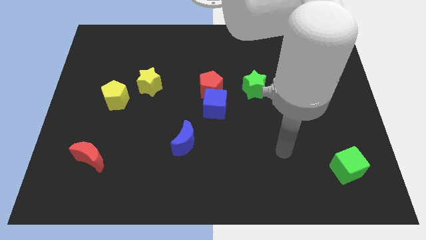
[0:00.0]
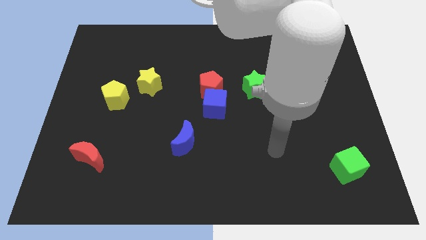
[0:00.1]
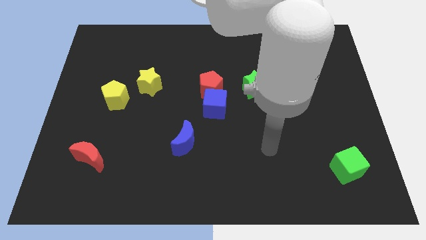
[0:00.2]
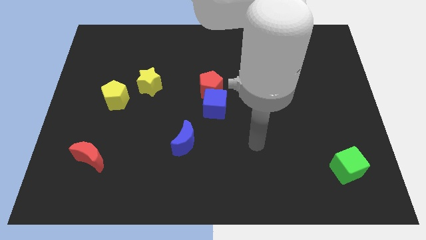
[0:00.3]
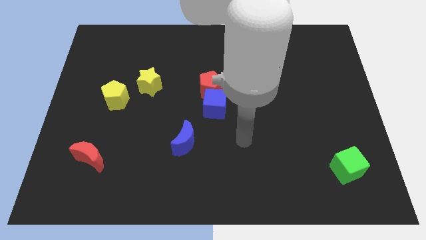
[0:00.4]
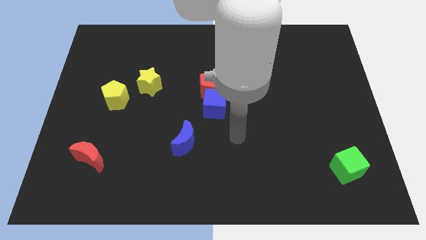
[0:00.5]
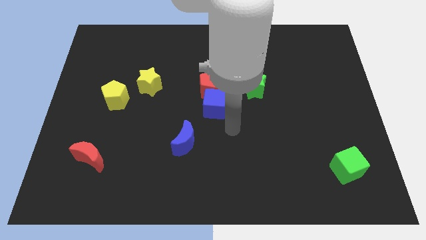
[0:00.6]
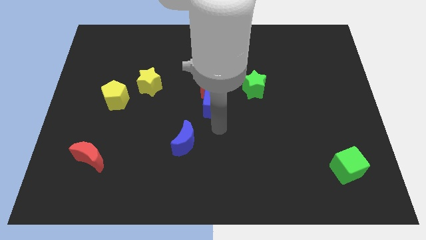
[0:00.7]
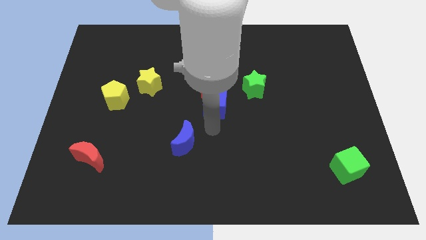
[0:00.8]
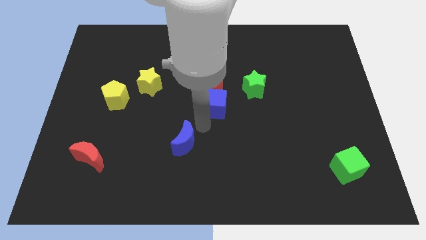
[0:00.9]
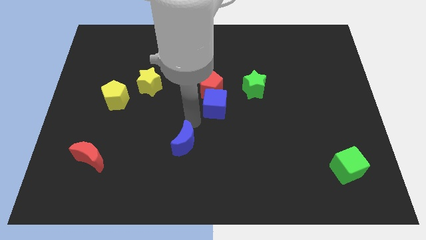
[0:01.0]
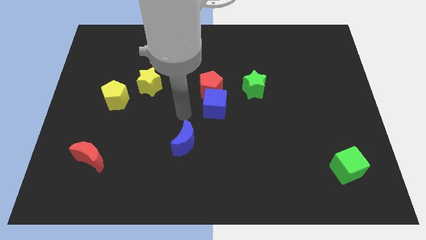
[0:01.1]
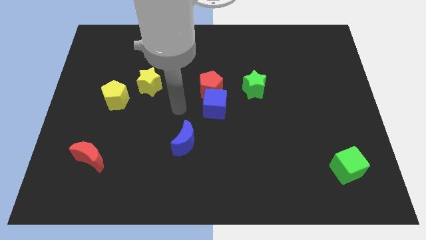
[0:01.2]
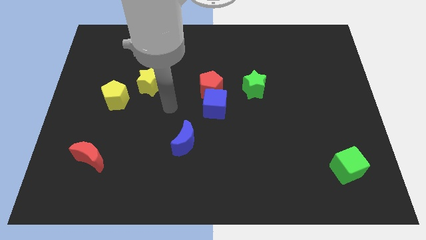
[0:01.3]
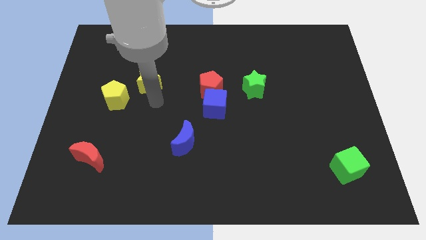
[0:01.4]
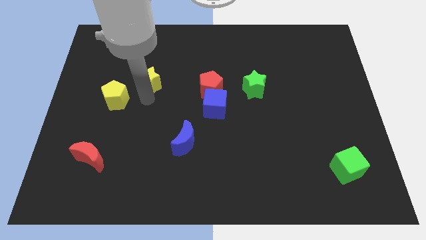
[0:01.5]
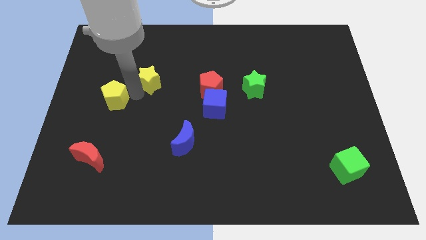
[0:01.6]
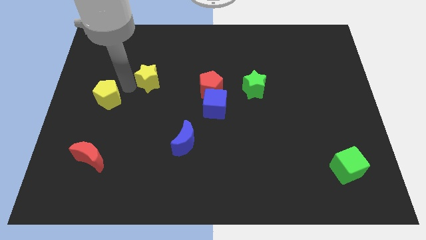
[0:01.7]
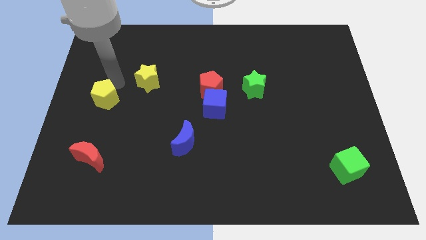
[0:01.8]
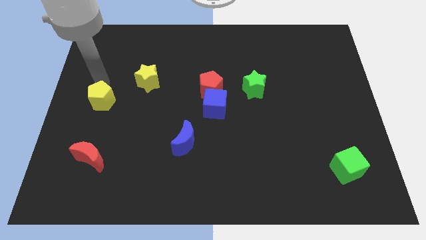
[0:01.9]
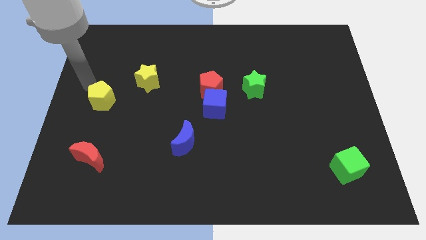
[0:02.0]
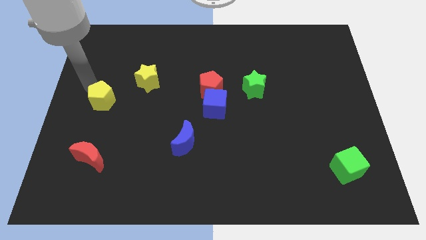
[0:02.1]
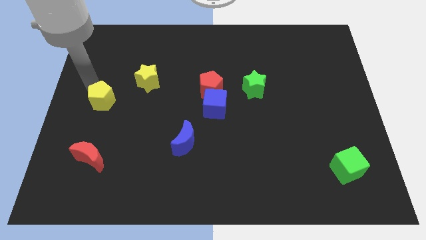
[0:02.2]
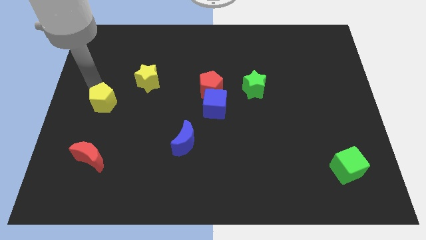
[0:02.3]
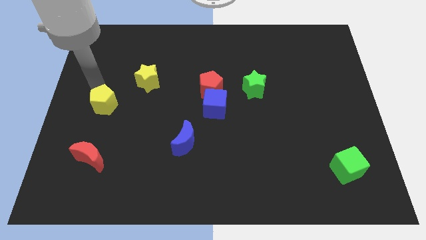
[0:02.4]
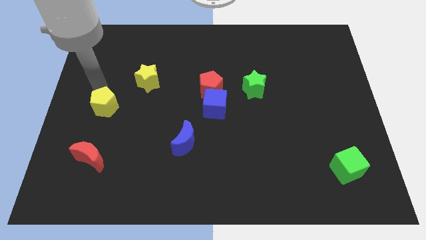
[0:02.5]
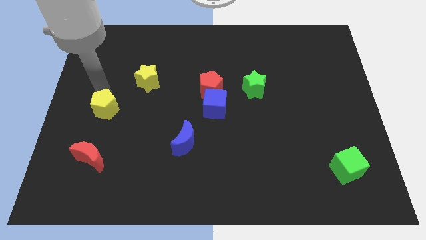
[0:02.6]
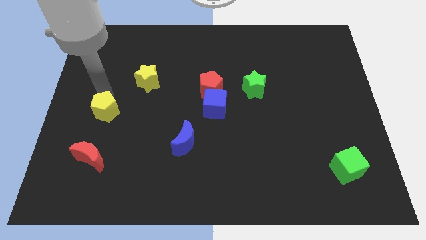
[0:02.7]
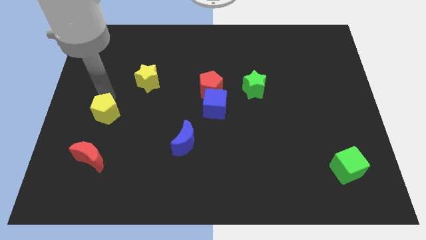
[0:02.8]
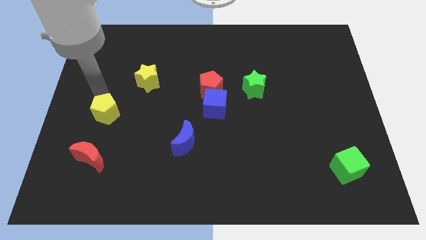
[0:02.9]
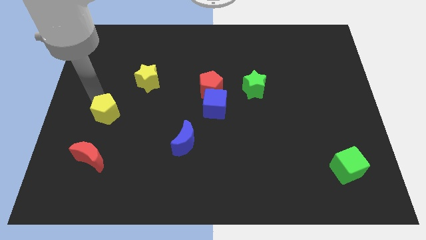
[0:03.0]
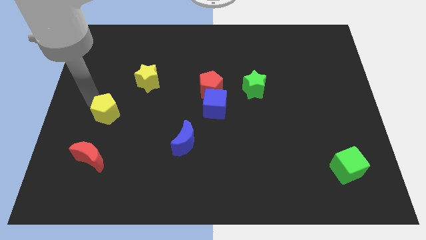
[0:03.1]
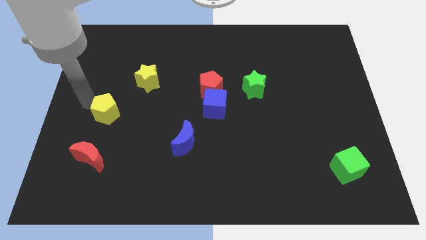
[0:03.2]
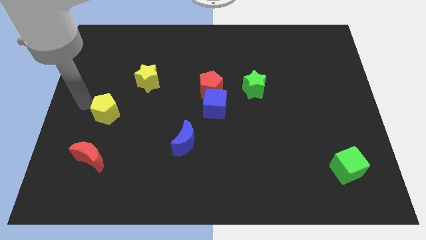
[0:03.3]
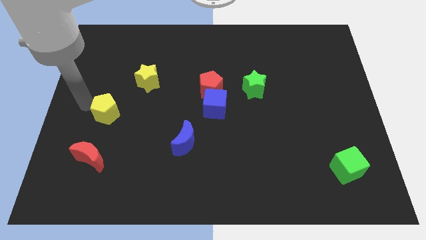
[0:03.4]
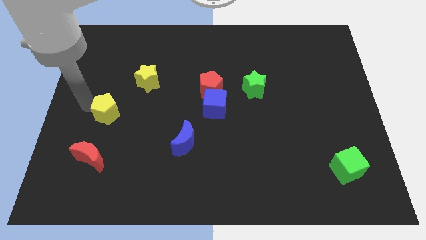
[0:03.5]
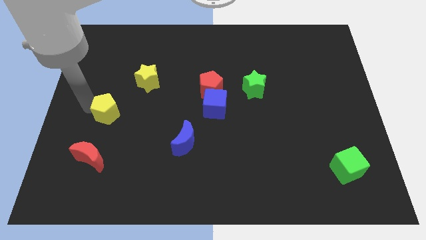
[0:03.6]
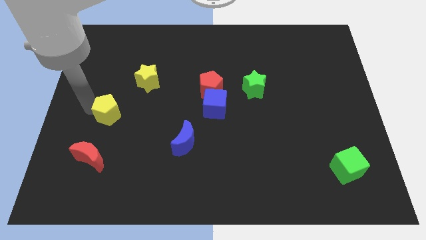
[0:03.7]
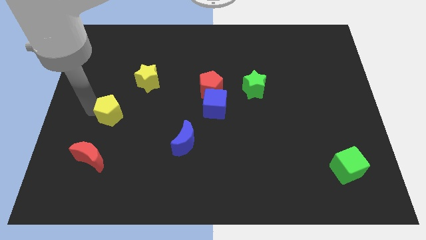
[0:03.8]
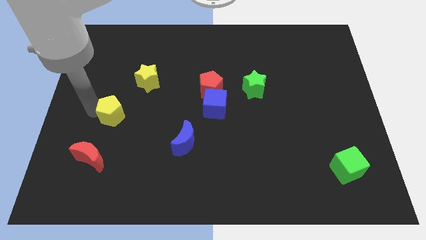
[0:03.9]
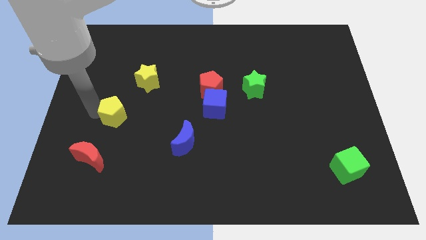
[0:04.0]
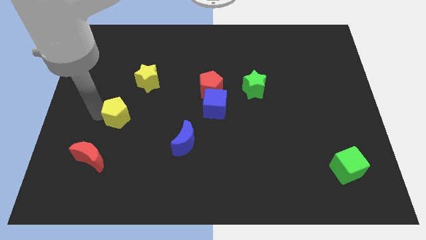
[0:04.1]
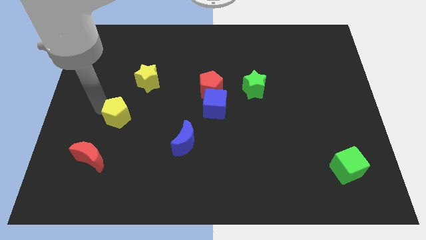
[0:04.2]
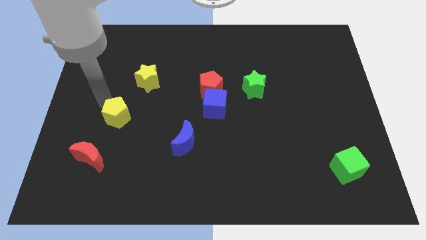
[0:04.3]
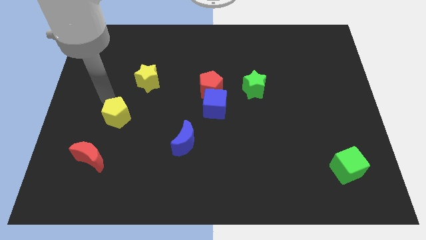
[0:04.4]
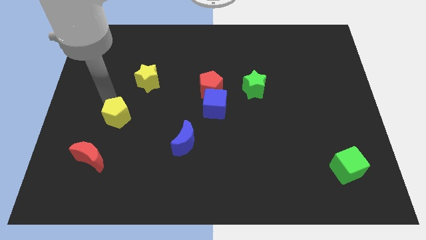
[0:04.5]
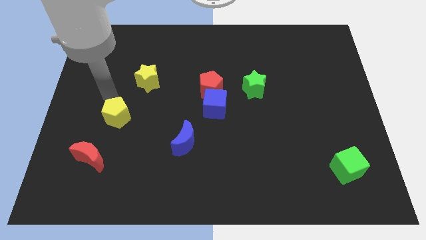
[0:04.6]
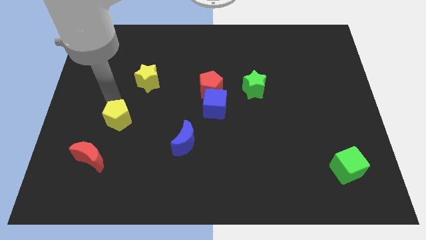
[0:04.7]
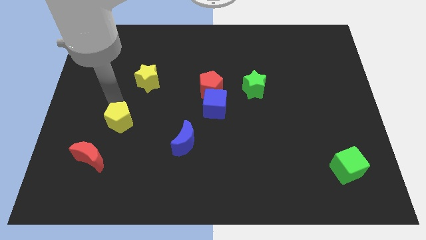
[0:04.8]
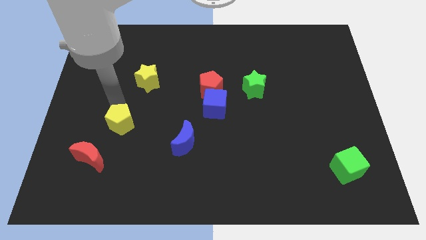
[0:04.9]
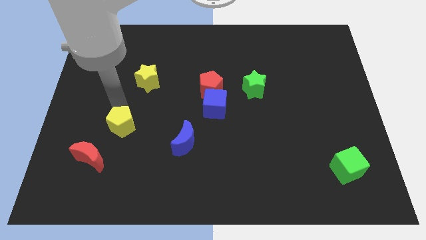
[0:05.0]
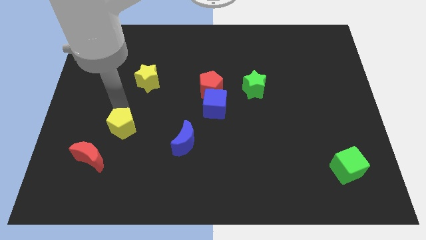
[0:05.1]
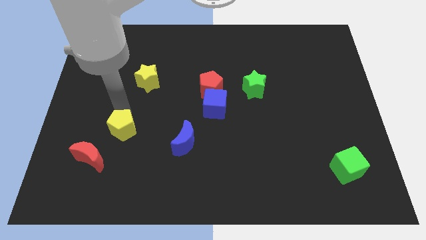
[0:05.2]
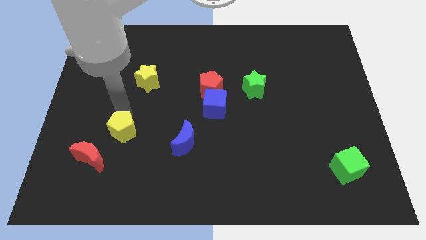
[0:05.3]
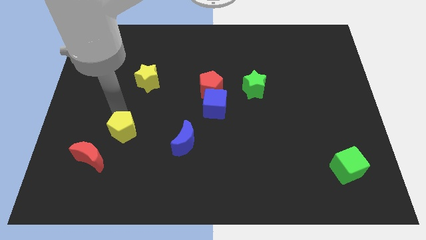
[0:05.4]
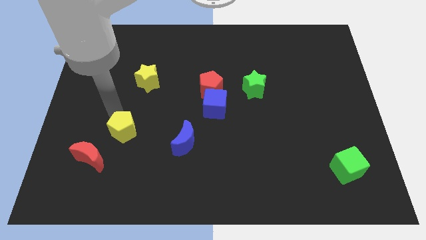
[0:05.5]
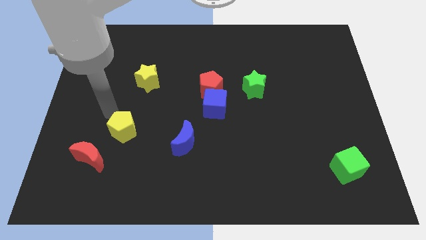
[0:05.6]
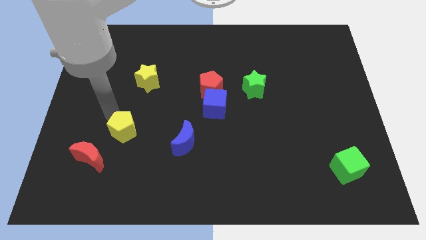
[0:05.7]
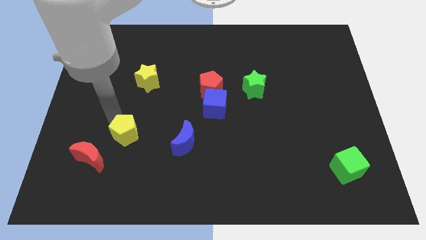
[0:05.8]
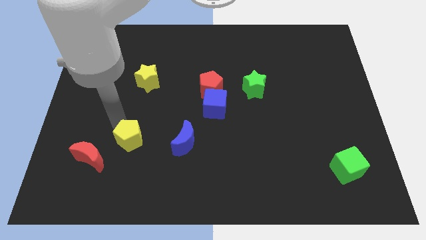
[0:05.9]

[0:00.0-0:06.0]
push the yellow pentagon to the right of the red moon

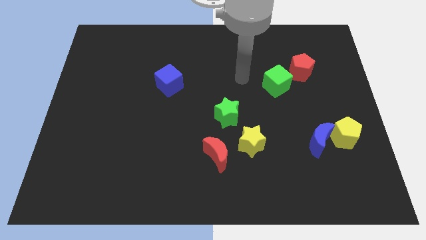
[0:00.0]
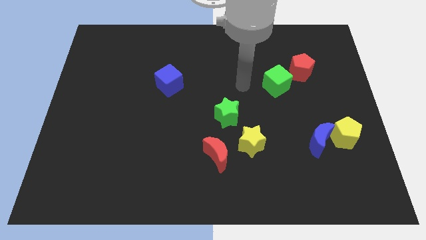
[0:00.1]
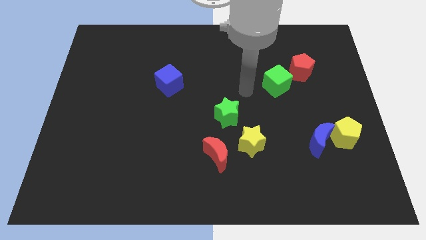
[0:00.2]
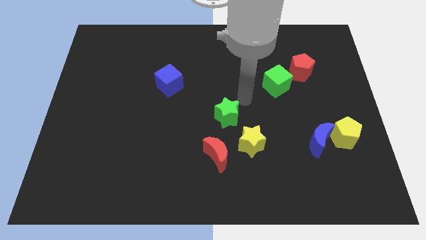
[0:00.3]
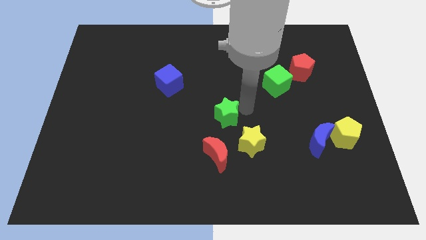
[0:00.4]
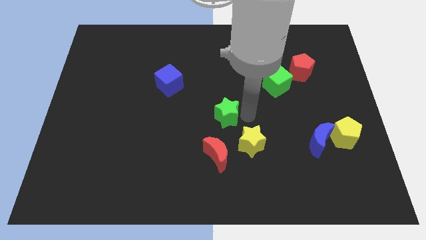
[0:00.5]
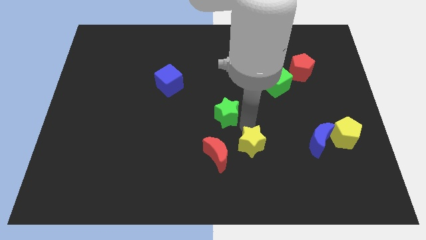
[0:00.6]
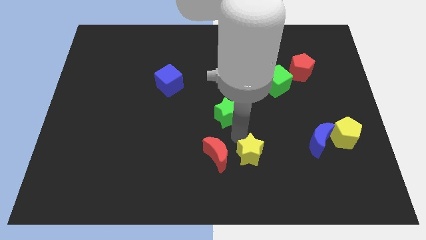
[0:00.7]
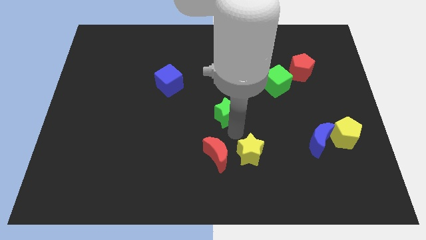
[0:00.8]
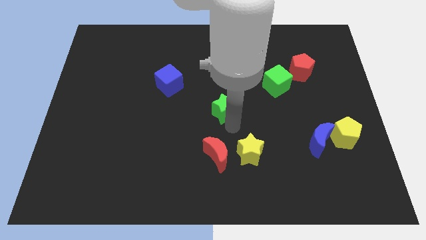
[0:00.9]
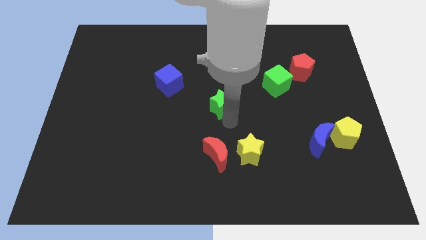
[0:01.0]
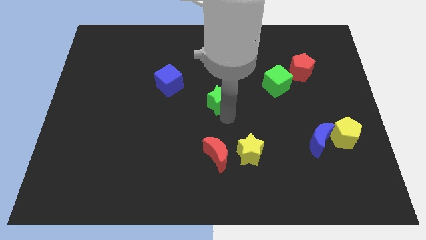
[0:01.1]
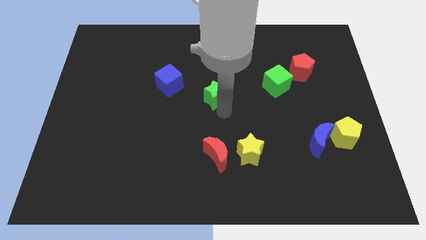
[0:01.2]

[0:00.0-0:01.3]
put the green star just right of the blue cube
